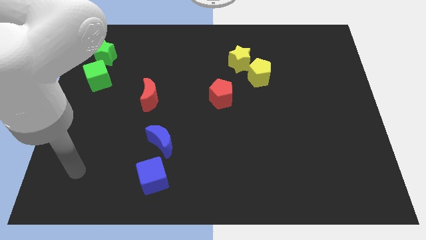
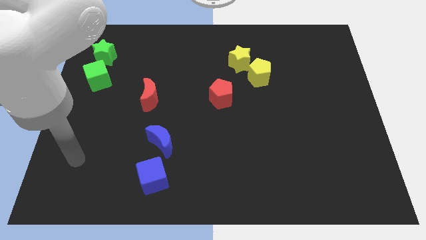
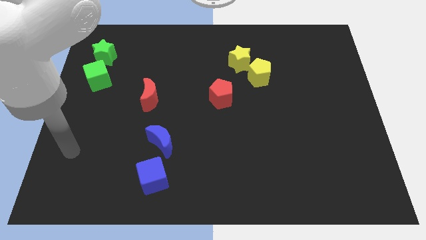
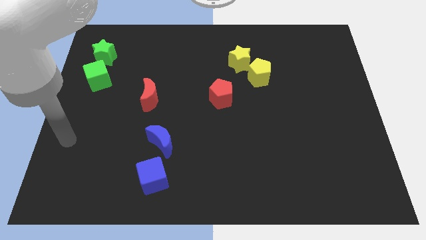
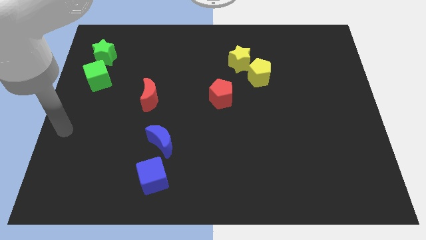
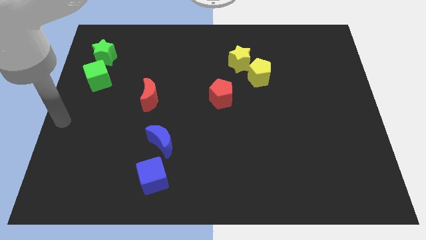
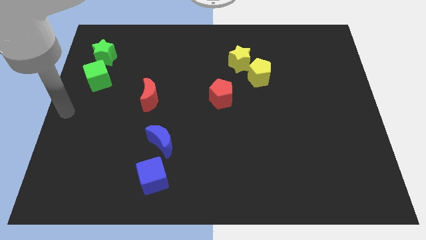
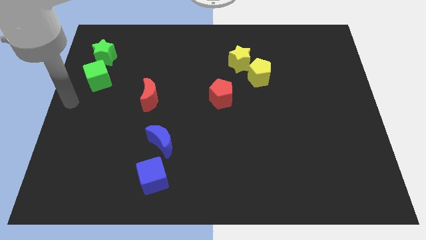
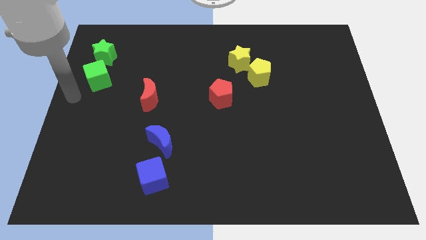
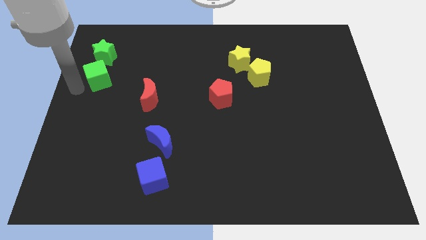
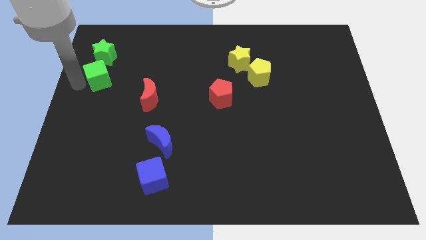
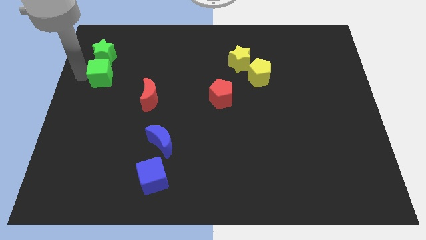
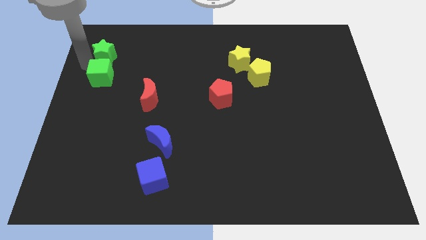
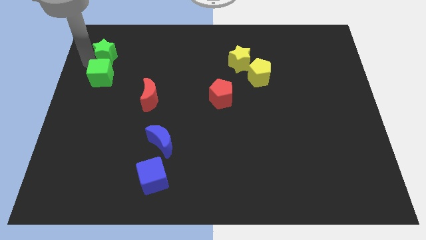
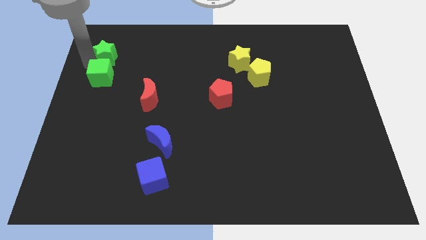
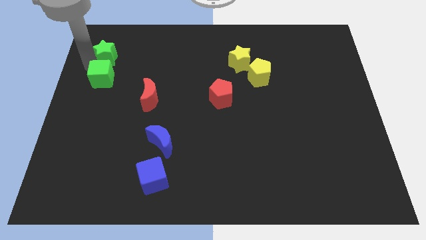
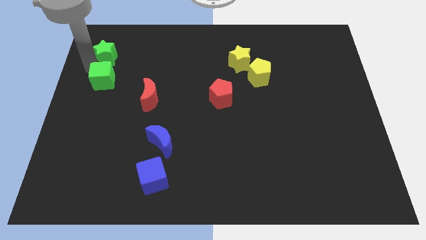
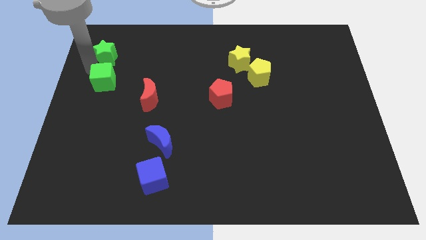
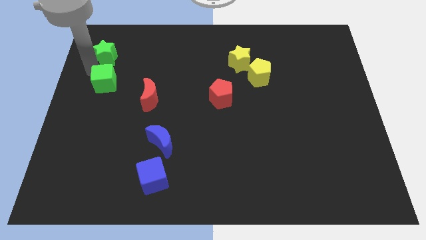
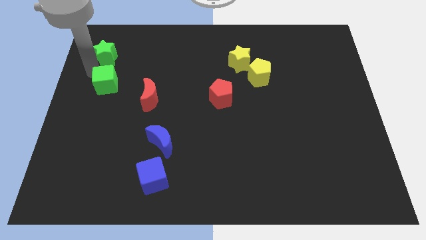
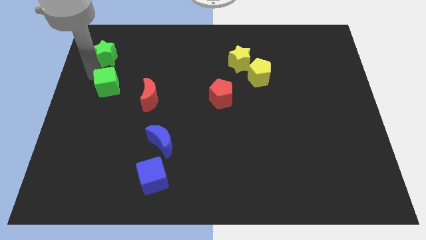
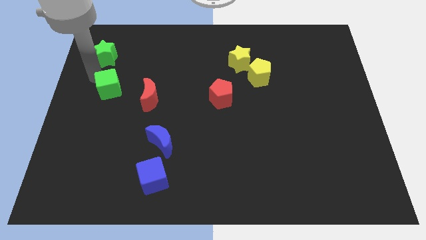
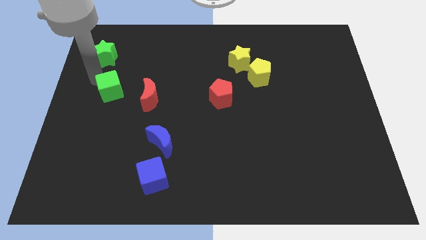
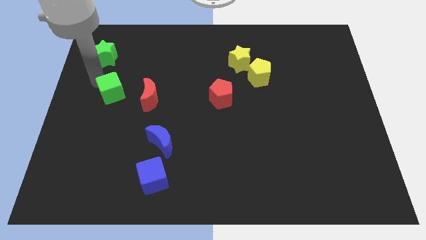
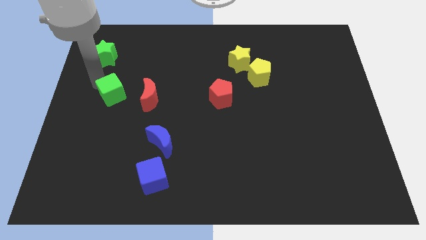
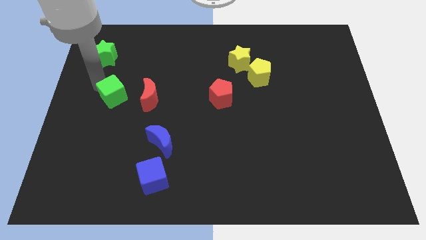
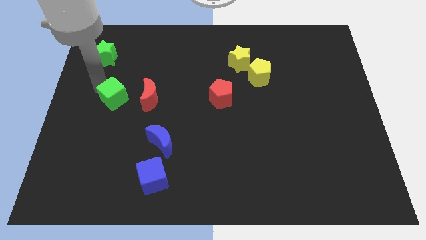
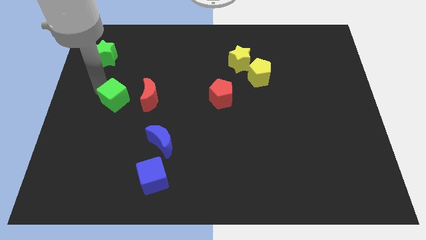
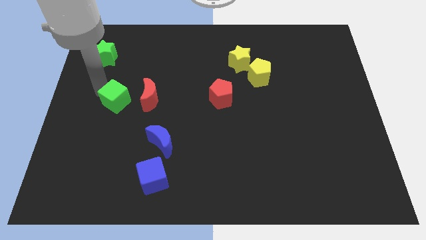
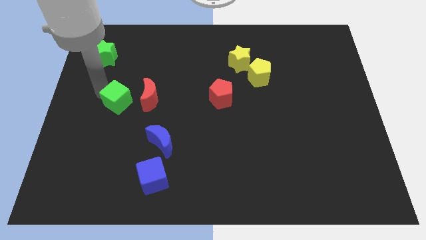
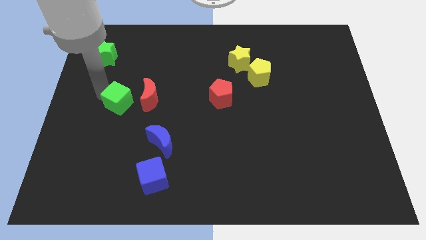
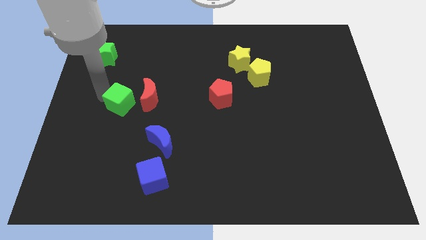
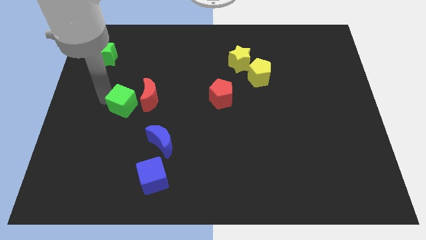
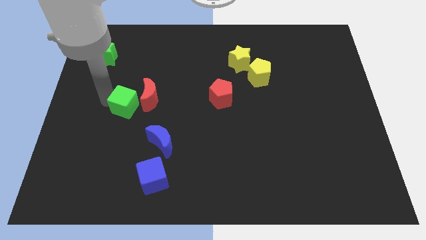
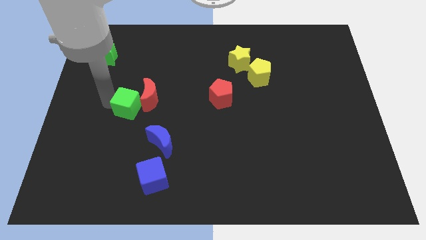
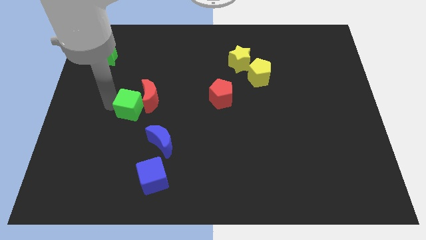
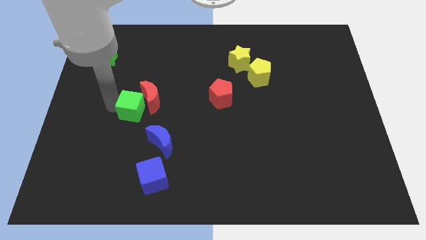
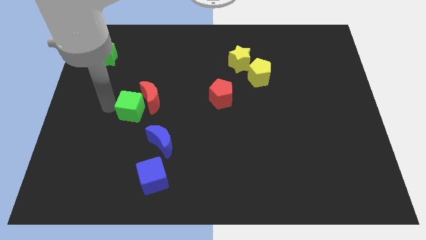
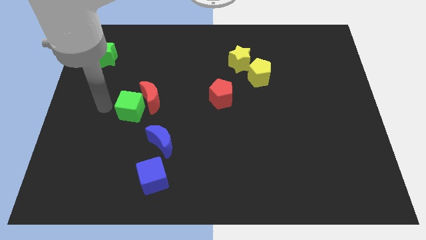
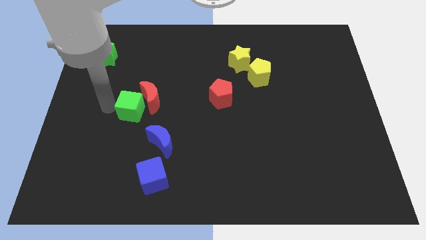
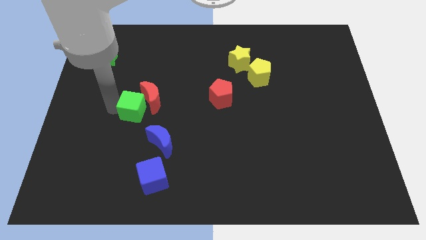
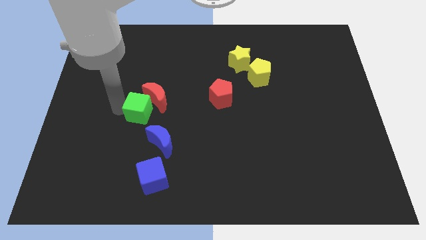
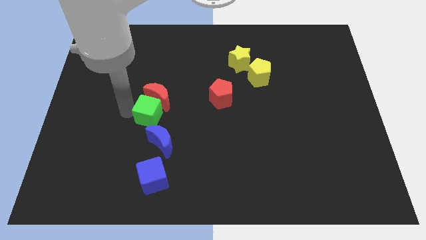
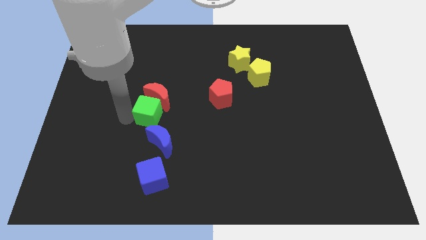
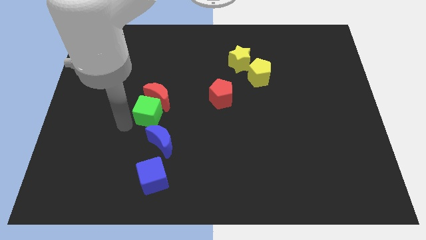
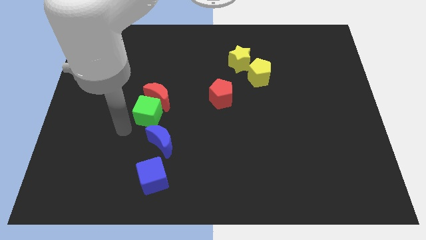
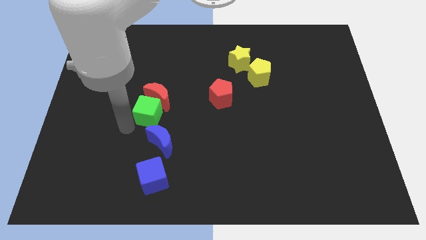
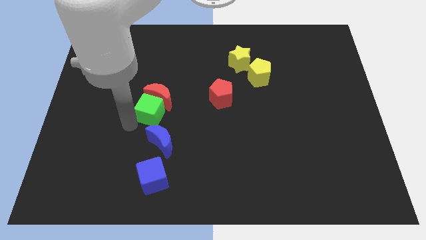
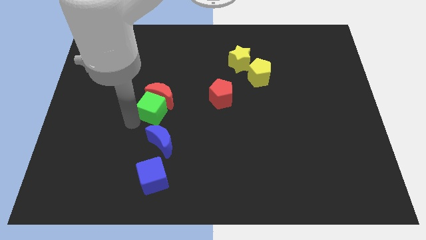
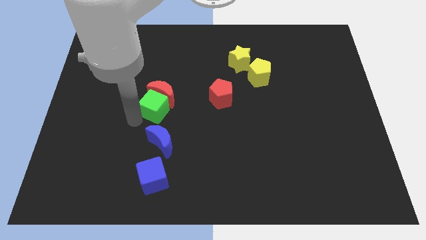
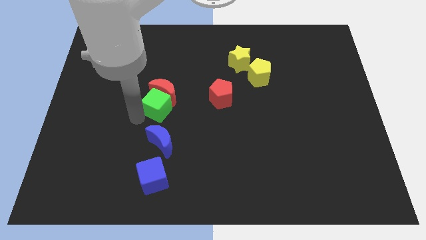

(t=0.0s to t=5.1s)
put the green cube just left of the red pentagon

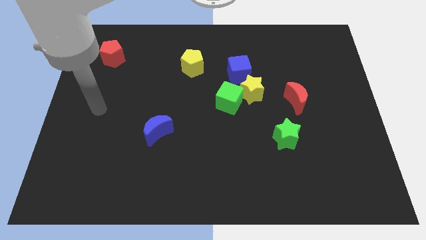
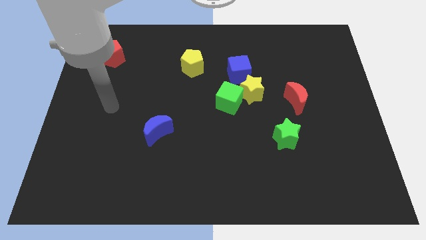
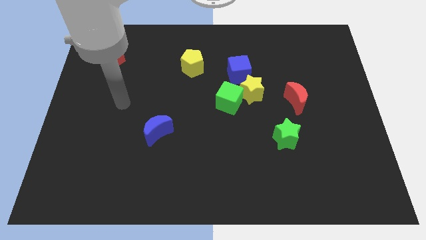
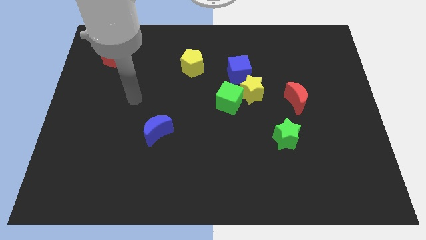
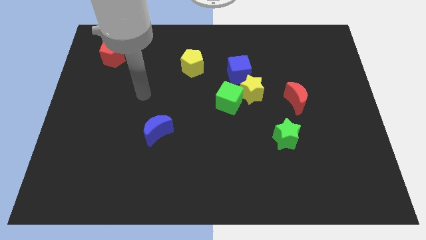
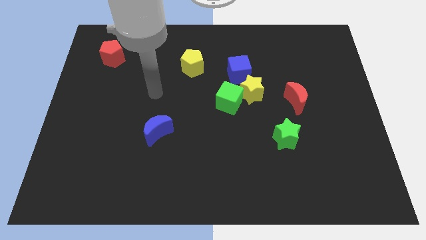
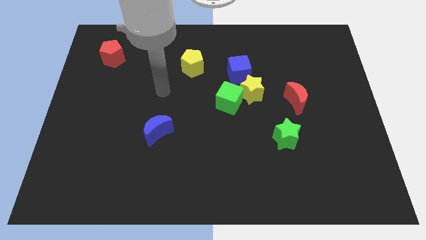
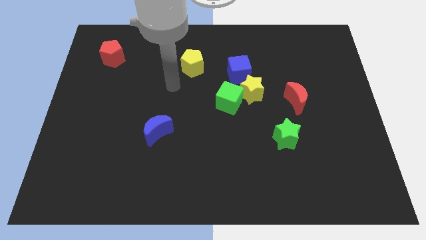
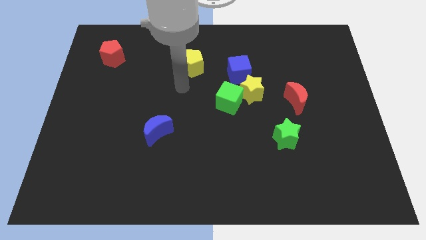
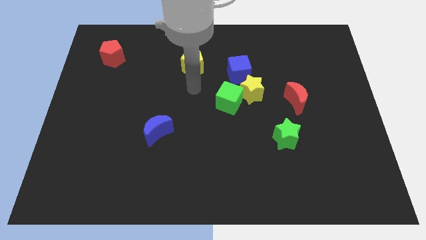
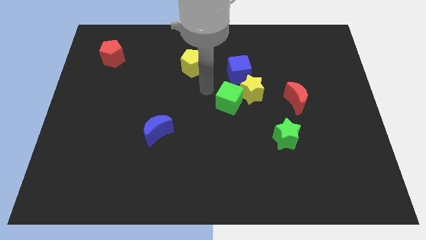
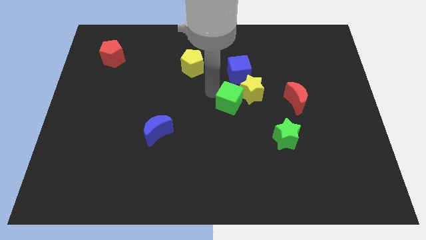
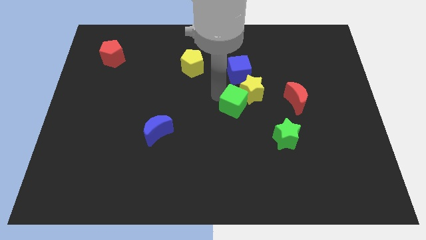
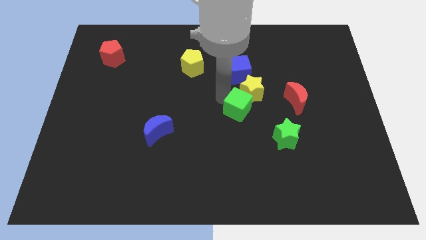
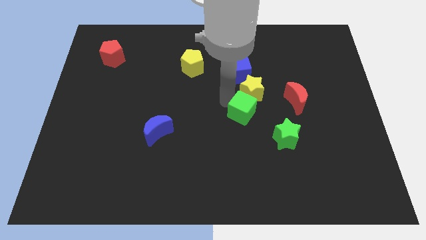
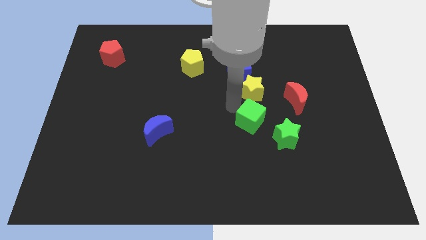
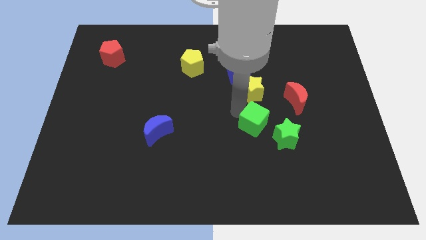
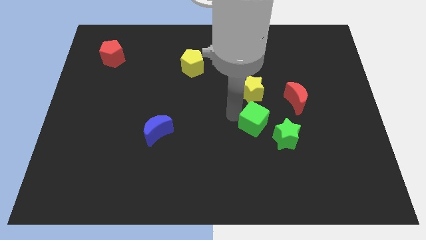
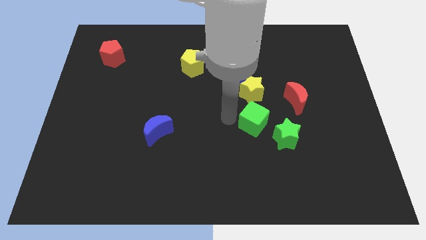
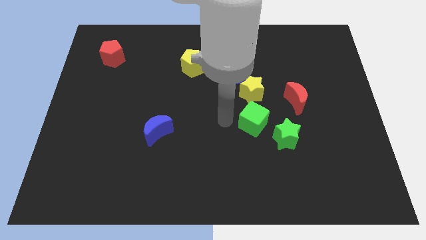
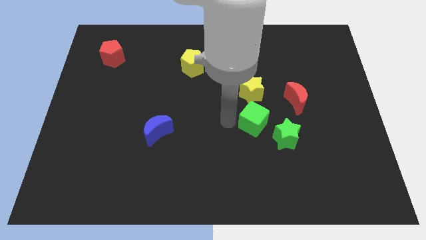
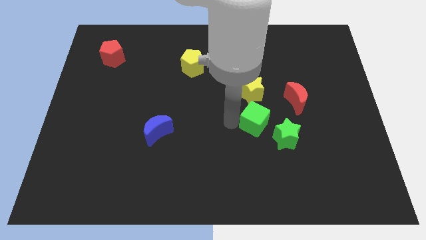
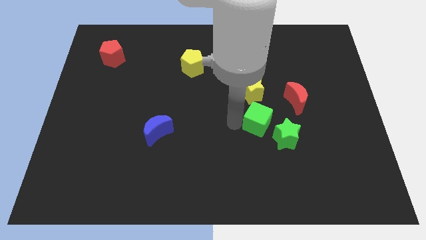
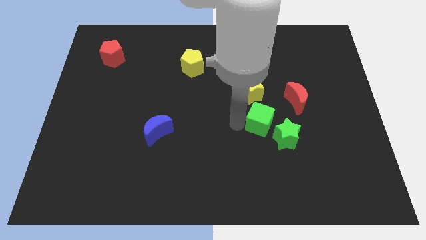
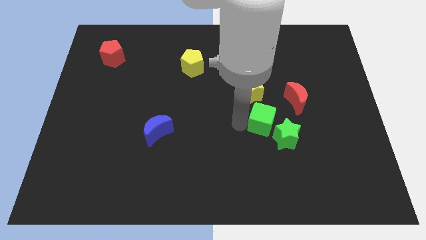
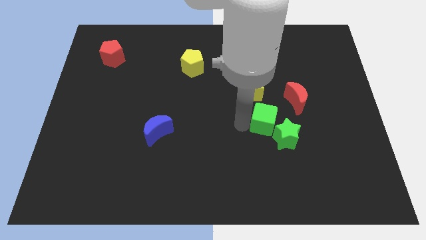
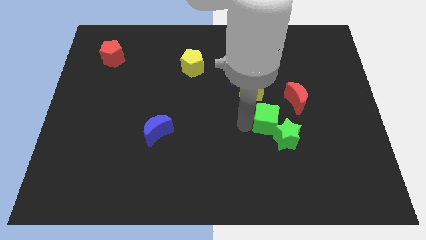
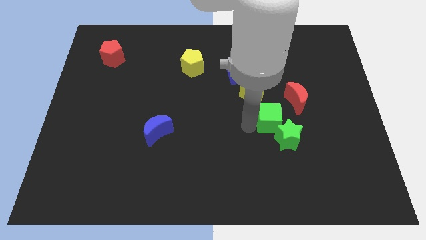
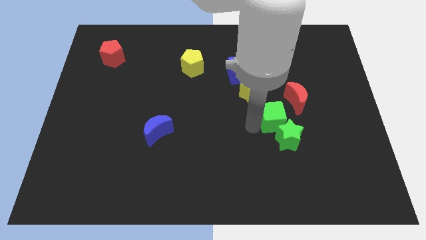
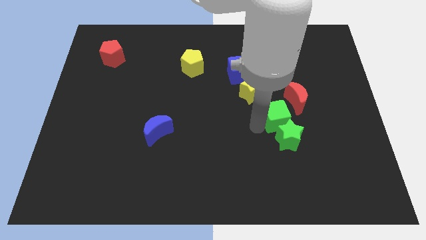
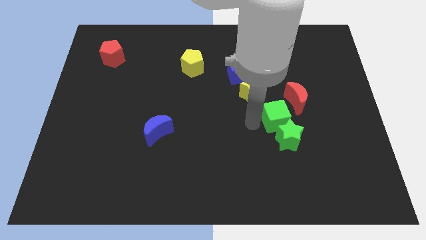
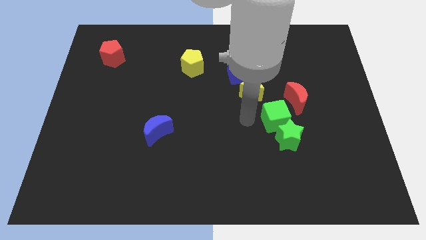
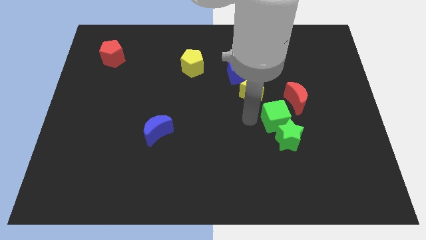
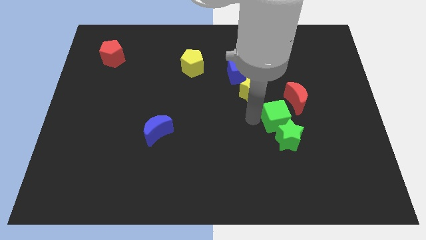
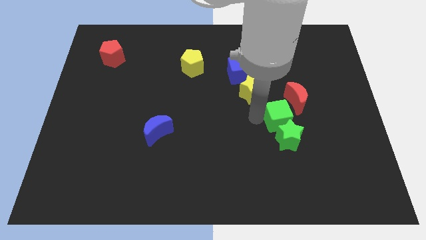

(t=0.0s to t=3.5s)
put the green cube to the top right side of the green star
